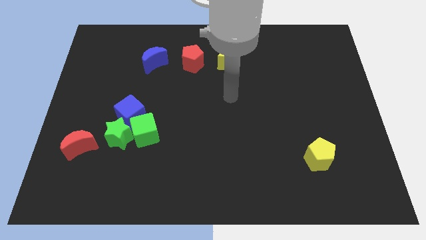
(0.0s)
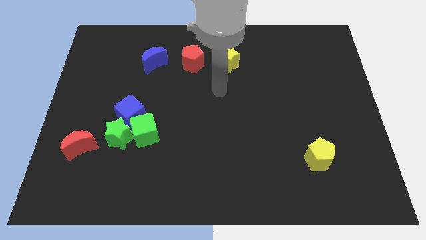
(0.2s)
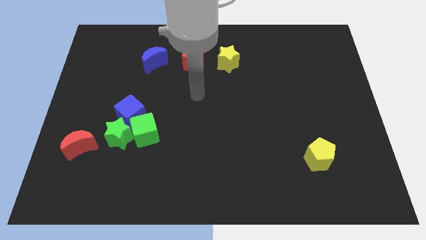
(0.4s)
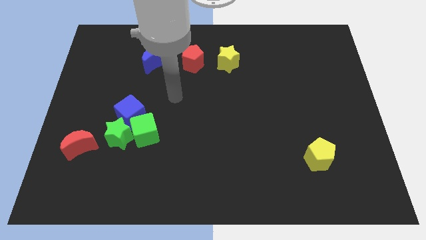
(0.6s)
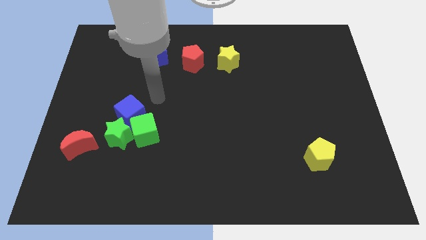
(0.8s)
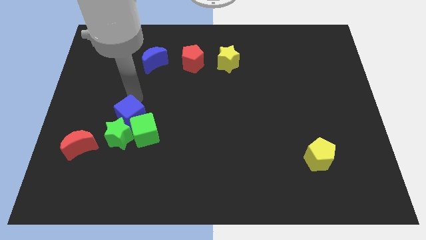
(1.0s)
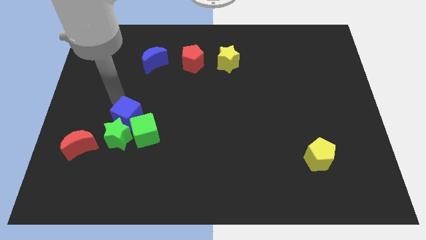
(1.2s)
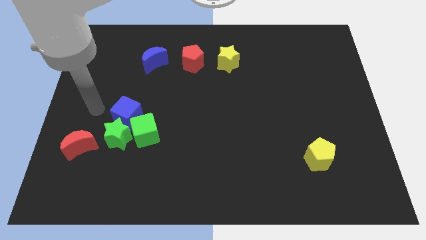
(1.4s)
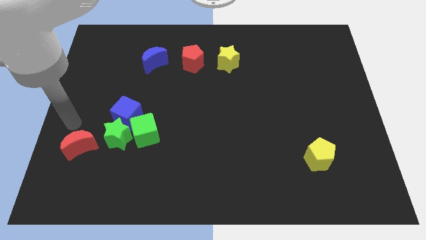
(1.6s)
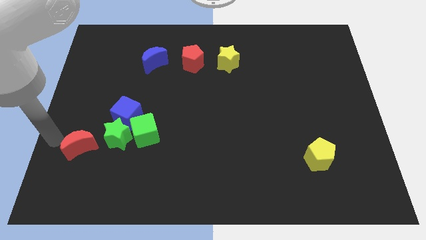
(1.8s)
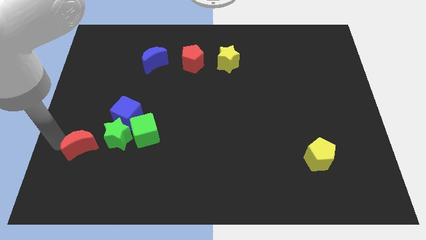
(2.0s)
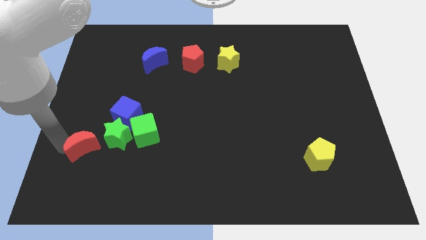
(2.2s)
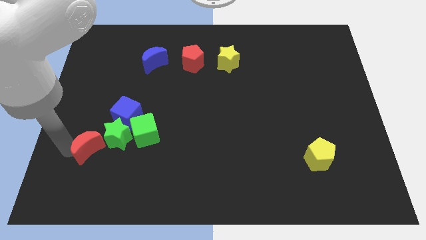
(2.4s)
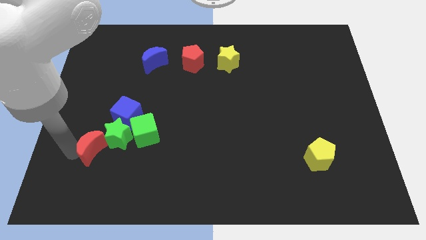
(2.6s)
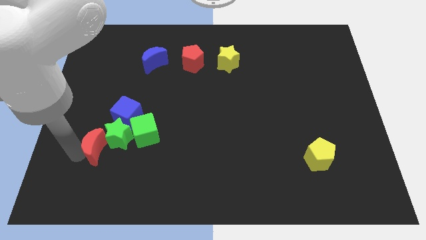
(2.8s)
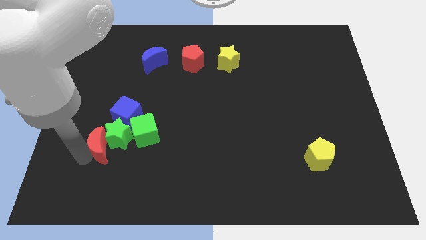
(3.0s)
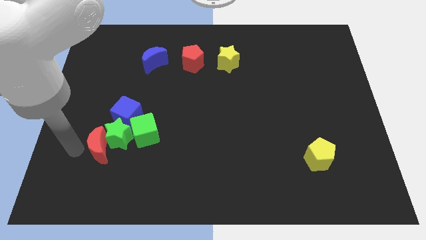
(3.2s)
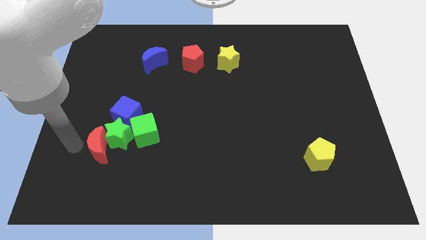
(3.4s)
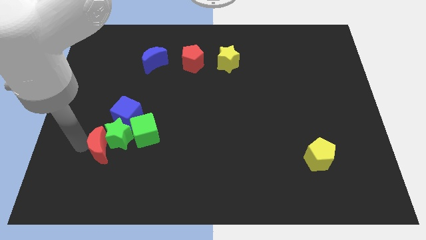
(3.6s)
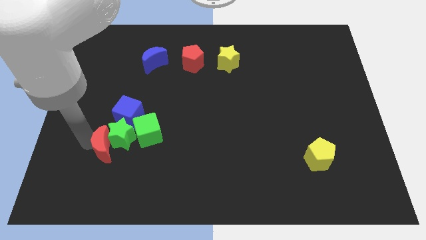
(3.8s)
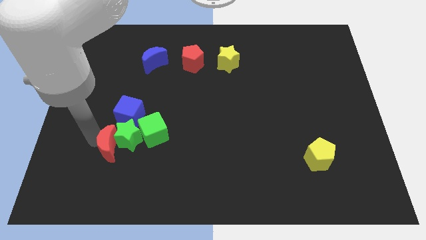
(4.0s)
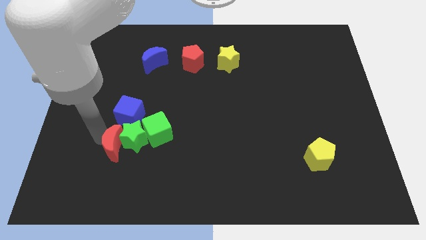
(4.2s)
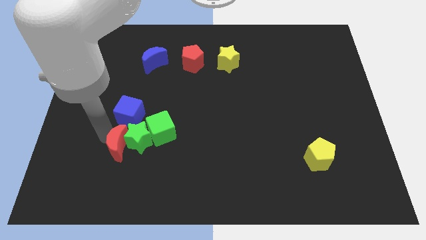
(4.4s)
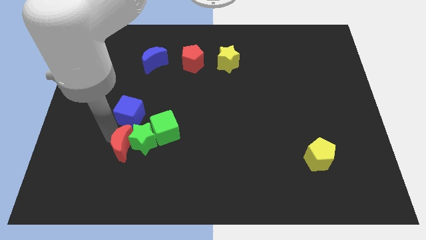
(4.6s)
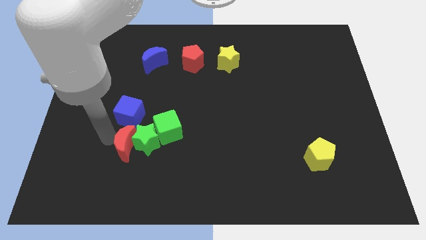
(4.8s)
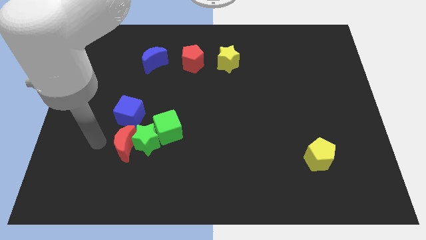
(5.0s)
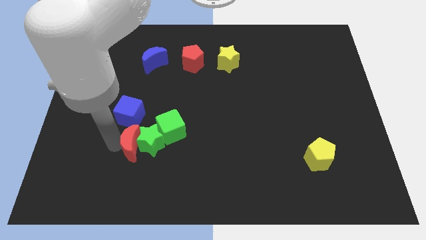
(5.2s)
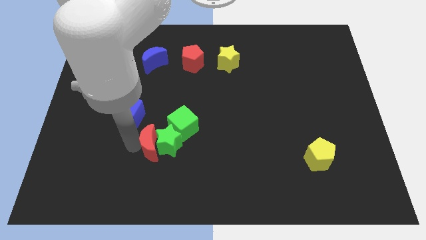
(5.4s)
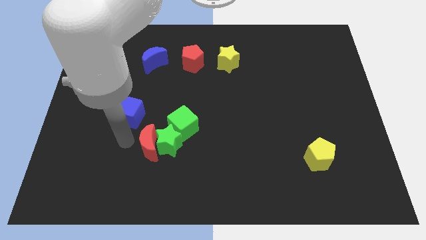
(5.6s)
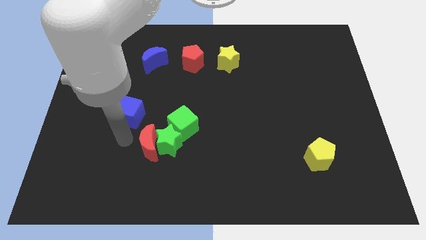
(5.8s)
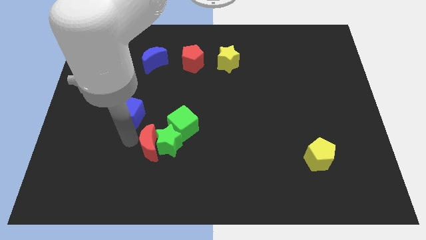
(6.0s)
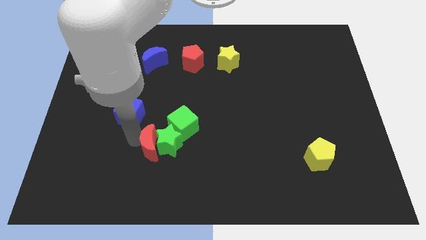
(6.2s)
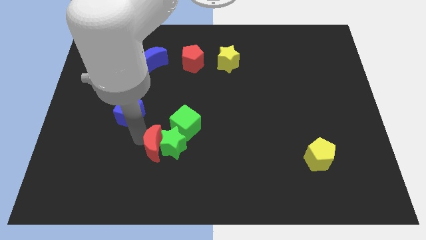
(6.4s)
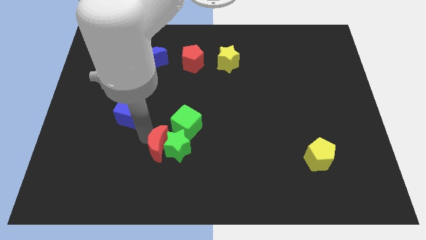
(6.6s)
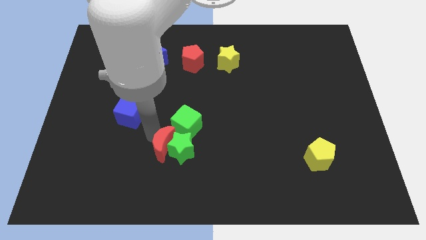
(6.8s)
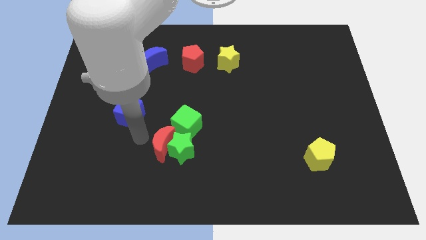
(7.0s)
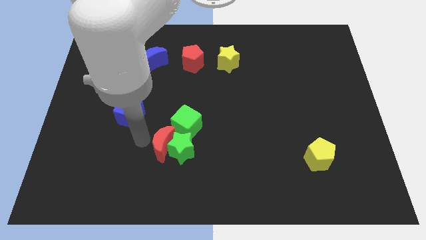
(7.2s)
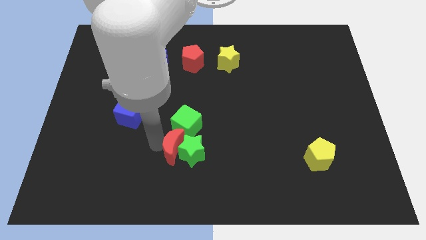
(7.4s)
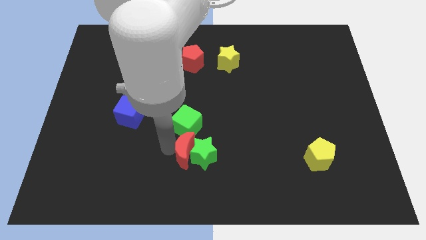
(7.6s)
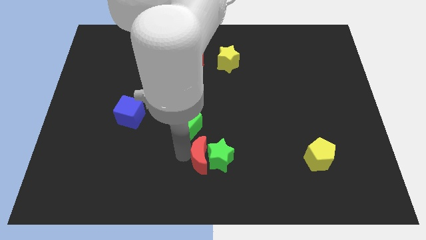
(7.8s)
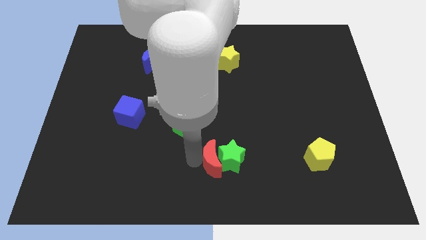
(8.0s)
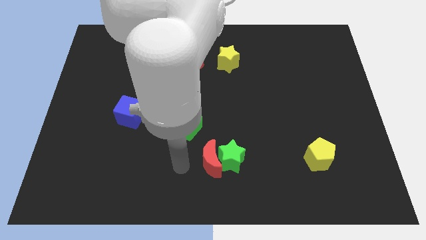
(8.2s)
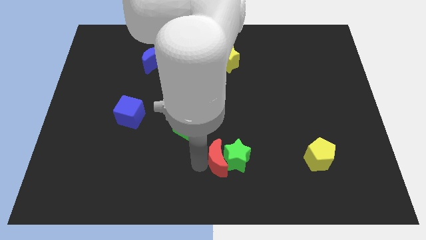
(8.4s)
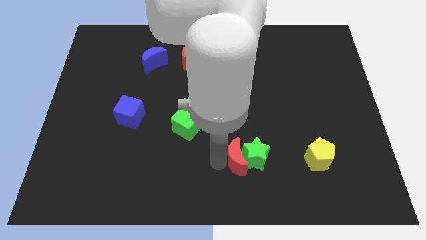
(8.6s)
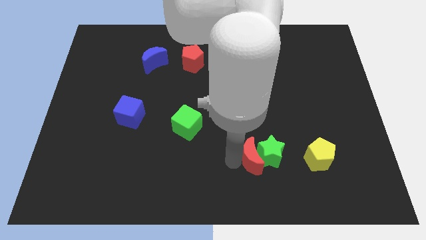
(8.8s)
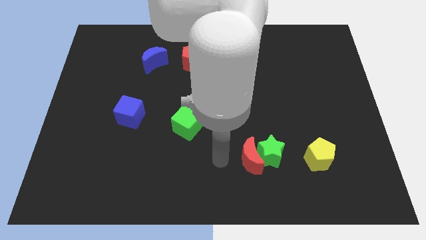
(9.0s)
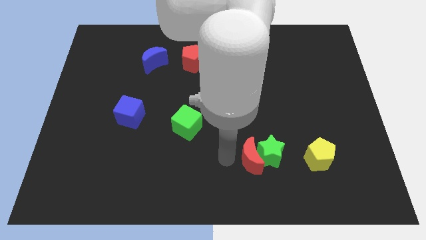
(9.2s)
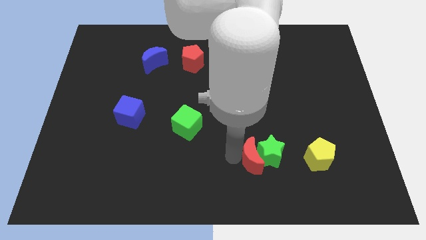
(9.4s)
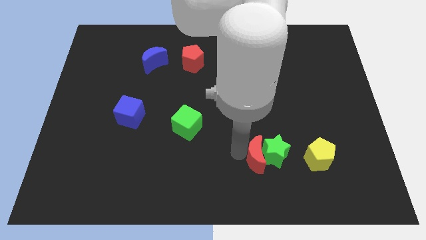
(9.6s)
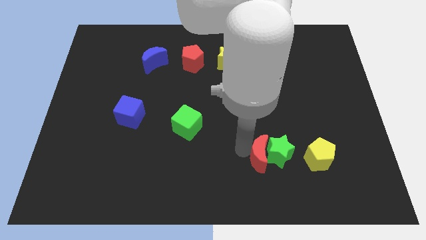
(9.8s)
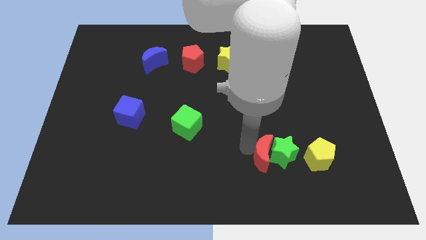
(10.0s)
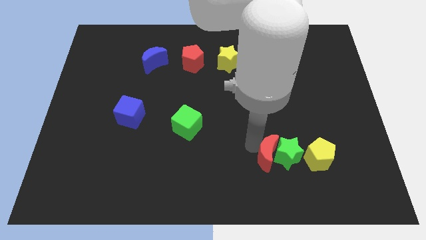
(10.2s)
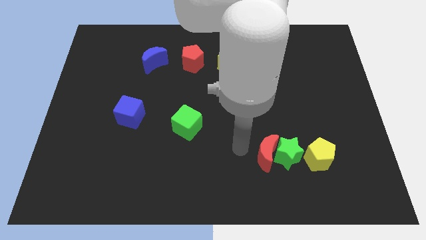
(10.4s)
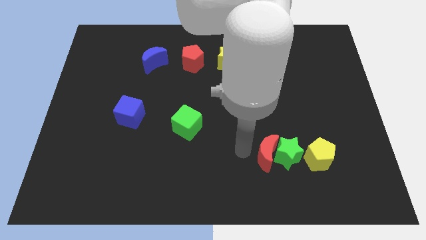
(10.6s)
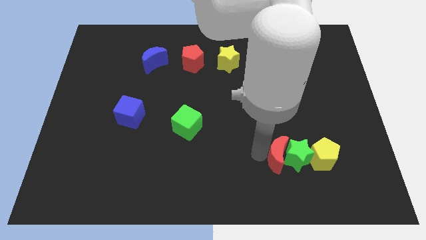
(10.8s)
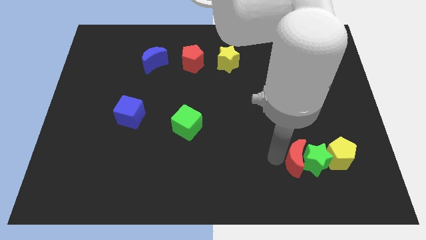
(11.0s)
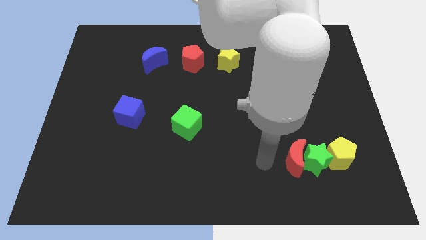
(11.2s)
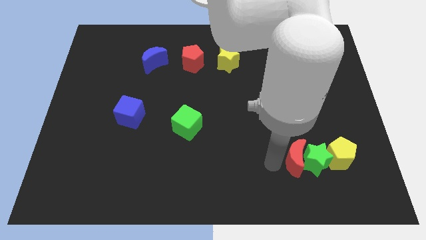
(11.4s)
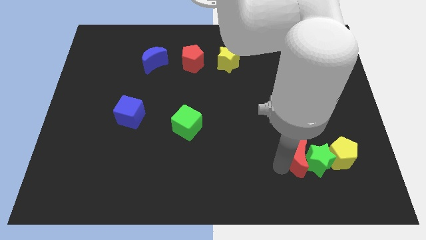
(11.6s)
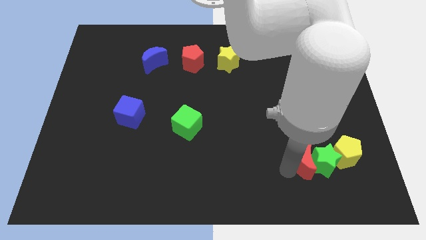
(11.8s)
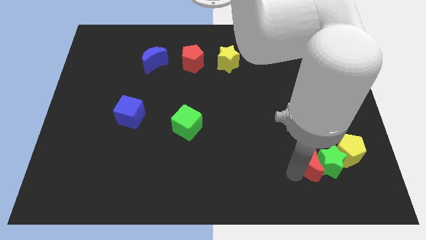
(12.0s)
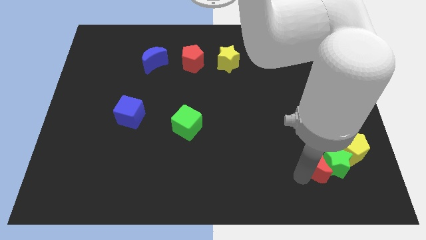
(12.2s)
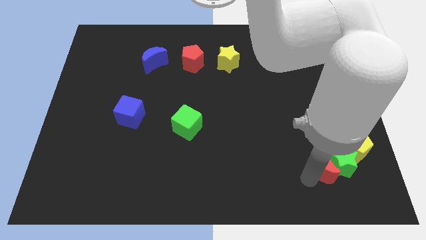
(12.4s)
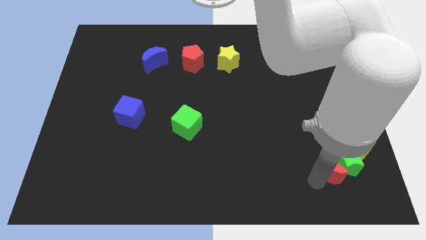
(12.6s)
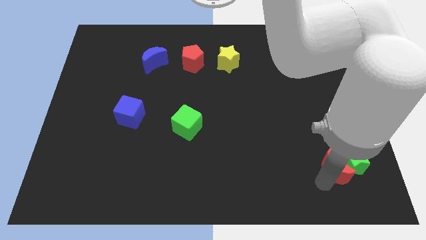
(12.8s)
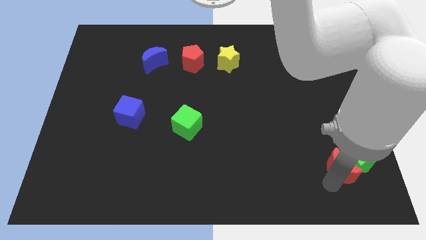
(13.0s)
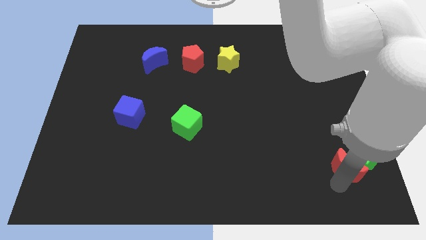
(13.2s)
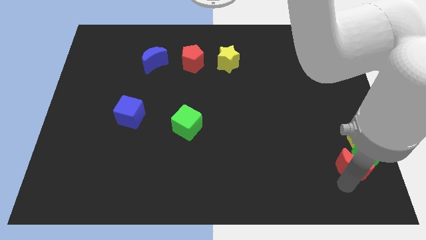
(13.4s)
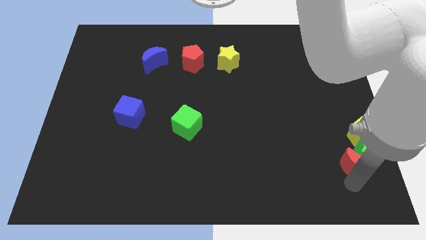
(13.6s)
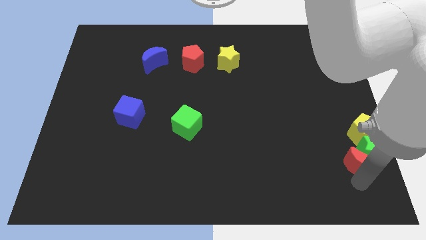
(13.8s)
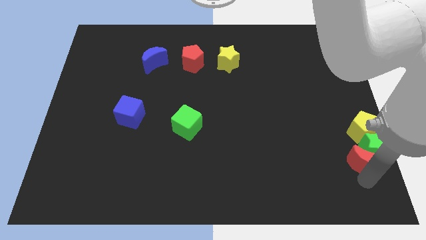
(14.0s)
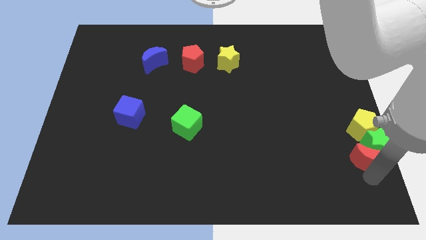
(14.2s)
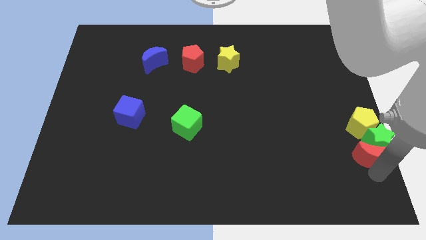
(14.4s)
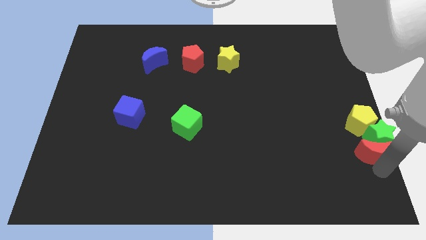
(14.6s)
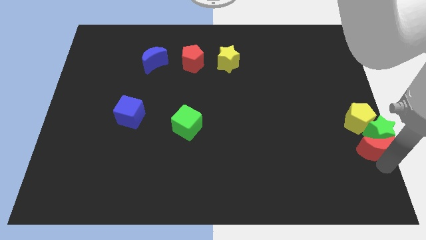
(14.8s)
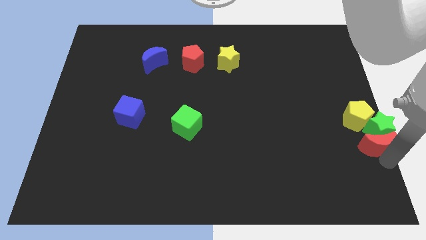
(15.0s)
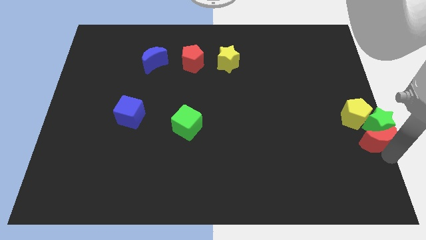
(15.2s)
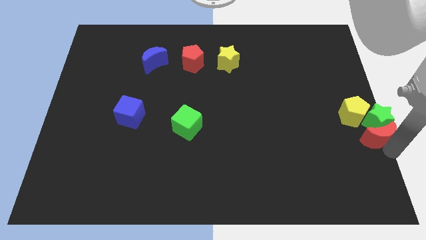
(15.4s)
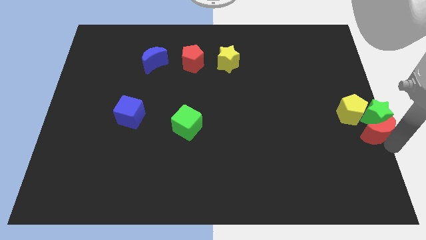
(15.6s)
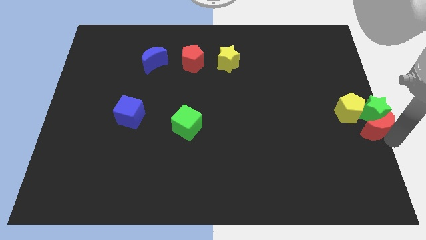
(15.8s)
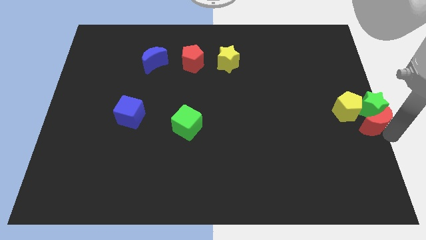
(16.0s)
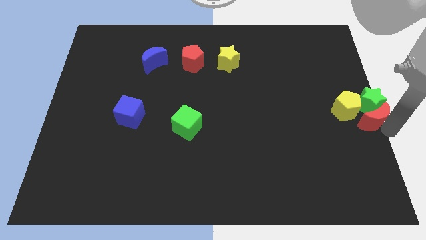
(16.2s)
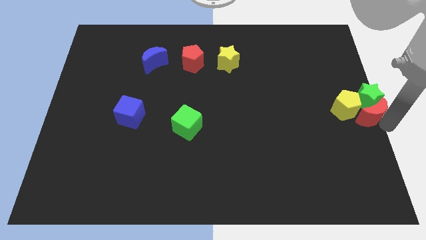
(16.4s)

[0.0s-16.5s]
slide the red moon next to the yellow pentagon
